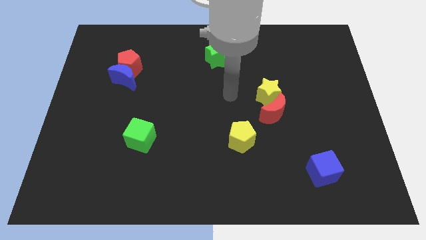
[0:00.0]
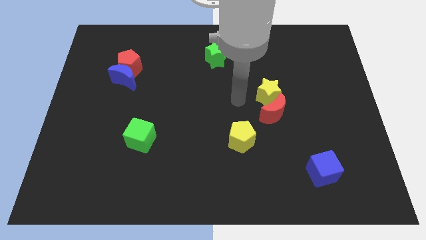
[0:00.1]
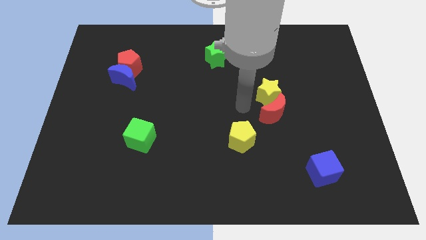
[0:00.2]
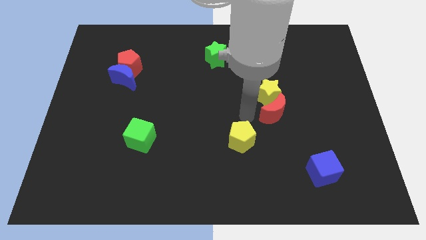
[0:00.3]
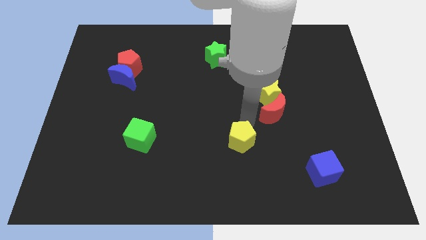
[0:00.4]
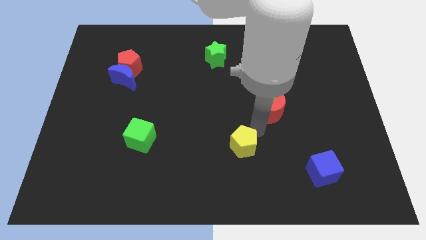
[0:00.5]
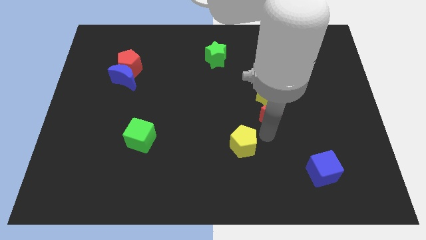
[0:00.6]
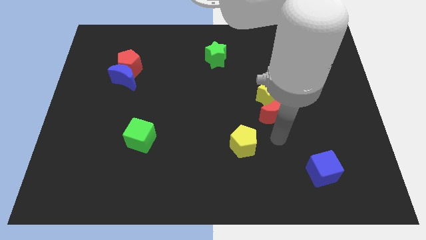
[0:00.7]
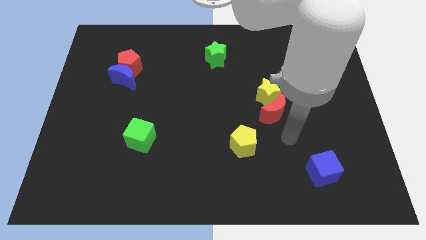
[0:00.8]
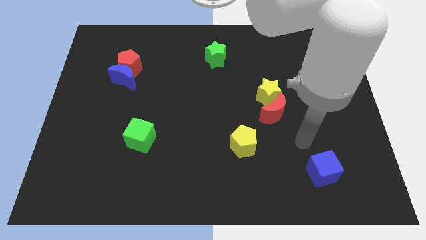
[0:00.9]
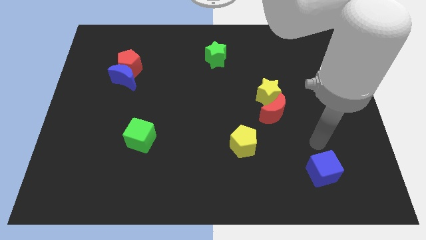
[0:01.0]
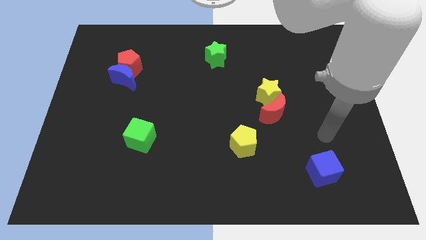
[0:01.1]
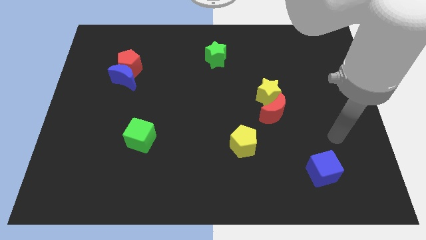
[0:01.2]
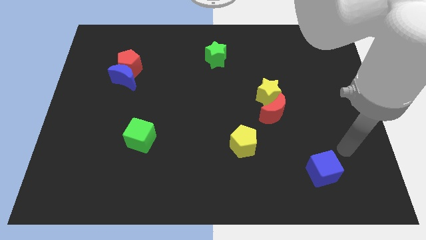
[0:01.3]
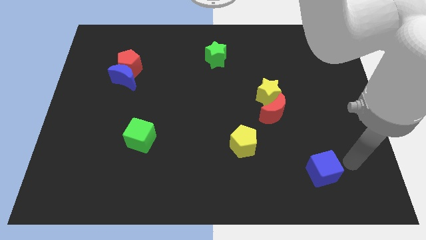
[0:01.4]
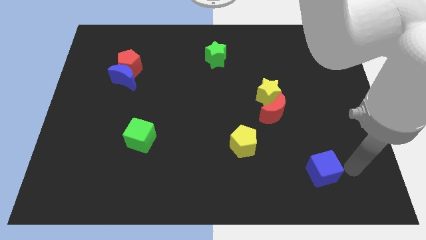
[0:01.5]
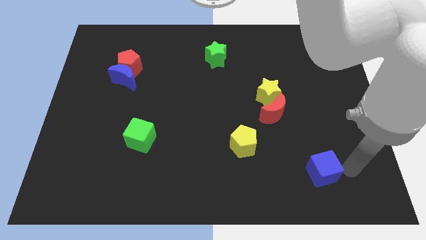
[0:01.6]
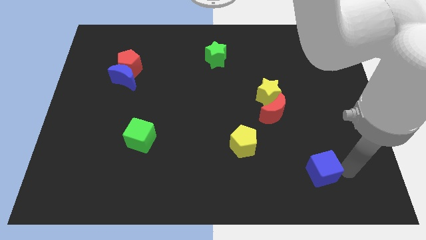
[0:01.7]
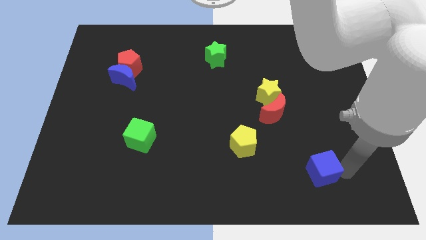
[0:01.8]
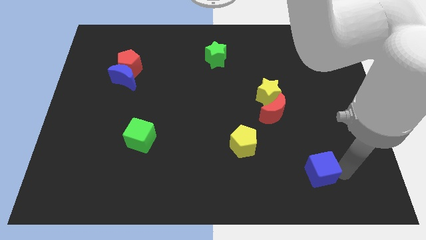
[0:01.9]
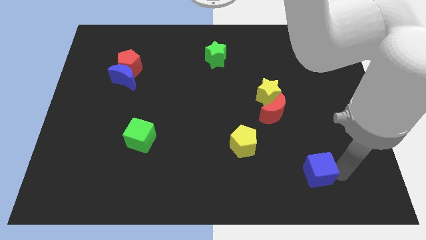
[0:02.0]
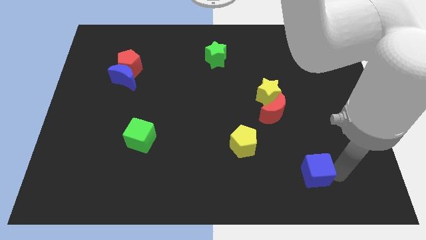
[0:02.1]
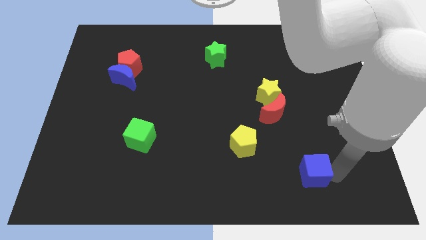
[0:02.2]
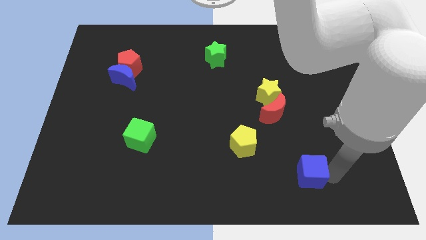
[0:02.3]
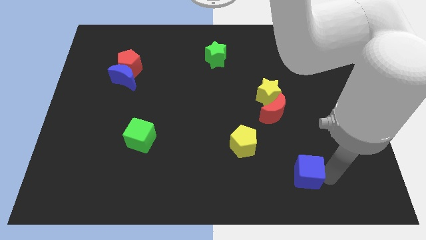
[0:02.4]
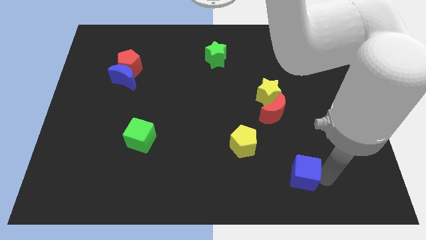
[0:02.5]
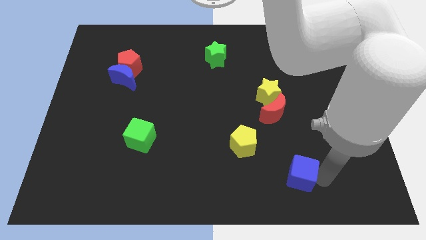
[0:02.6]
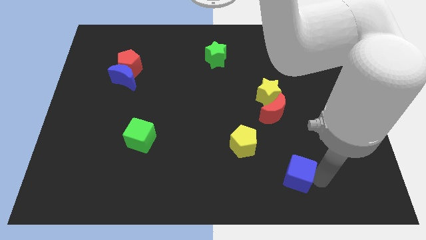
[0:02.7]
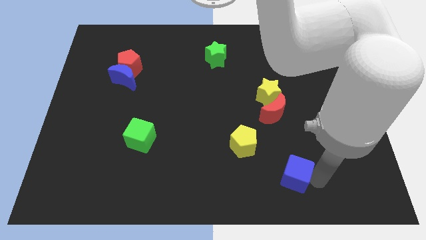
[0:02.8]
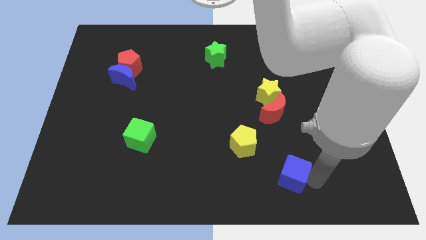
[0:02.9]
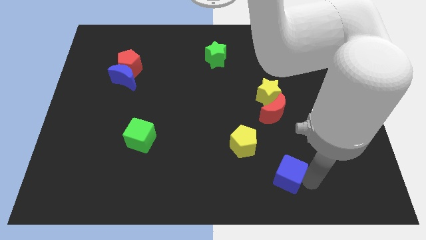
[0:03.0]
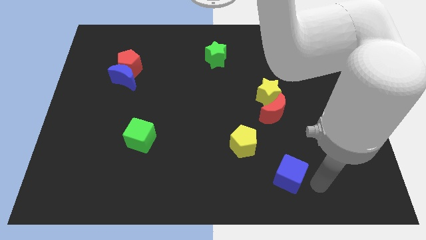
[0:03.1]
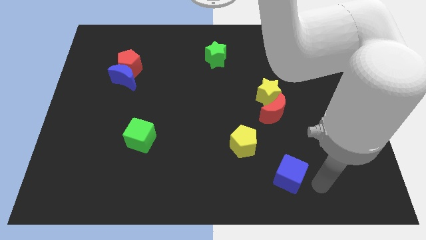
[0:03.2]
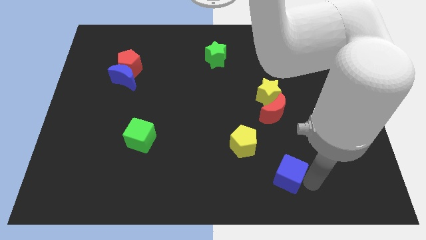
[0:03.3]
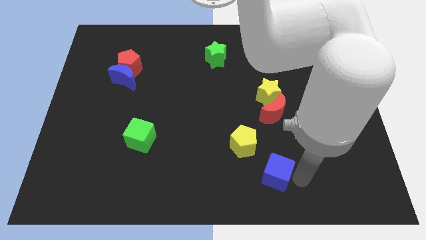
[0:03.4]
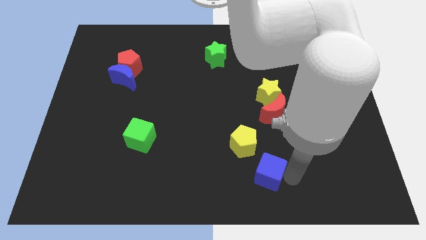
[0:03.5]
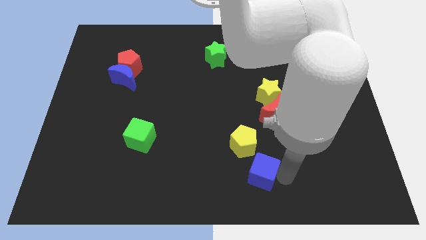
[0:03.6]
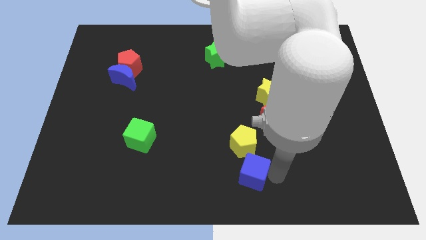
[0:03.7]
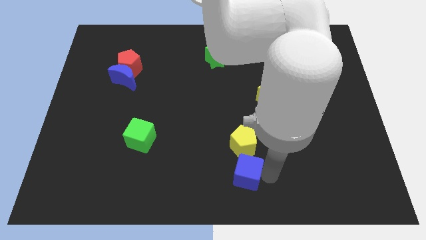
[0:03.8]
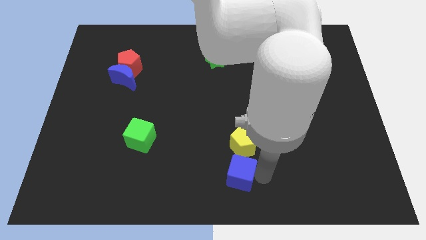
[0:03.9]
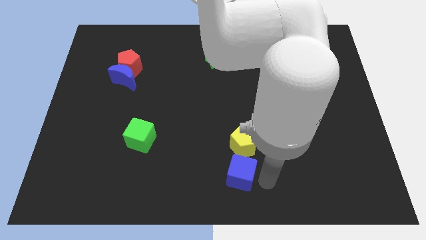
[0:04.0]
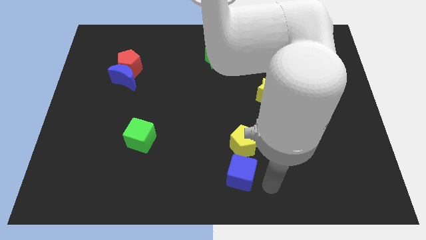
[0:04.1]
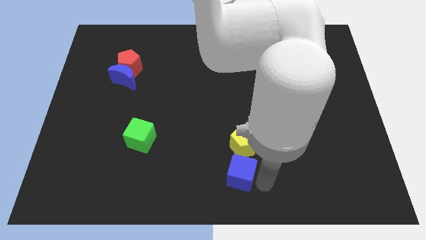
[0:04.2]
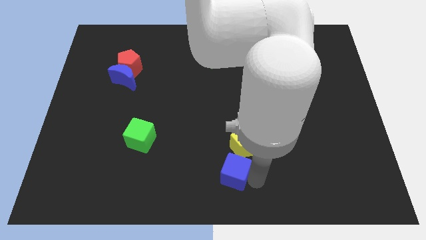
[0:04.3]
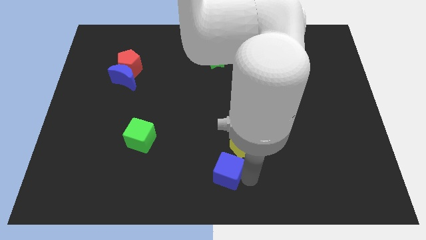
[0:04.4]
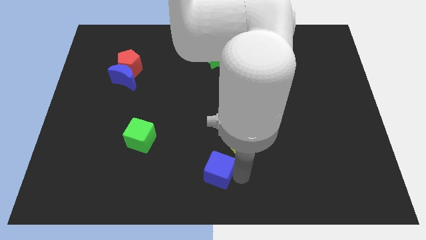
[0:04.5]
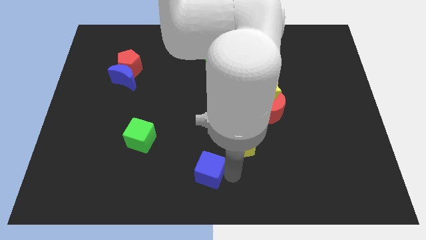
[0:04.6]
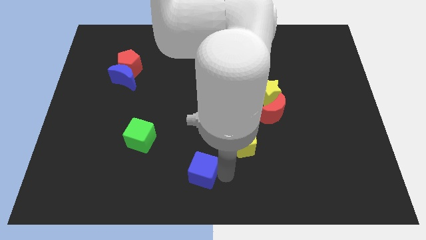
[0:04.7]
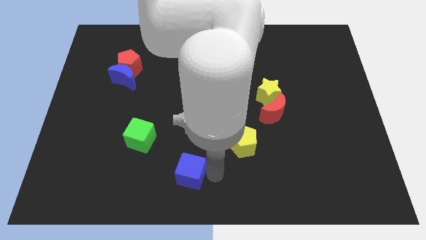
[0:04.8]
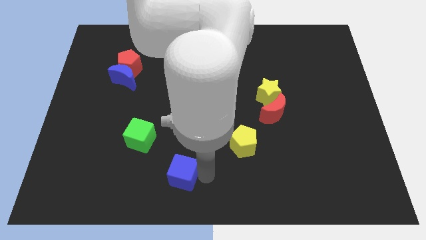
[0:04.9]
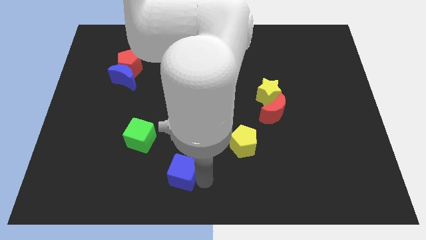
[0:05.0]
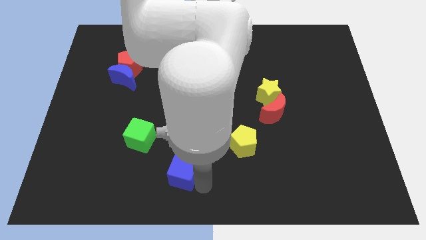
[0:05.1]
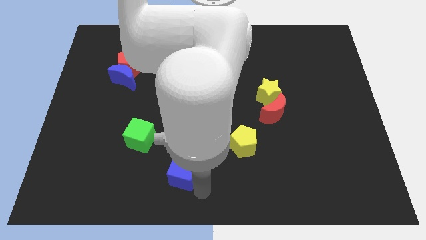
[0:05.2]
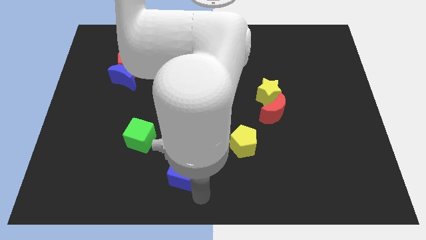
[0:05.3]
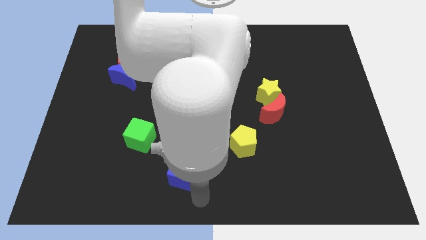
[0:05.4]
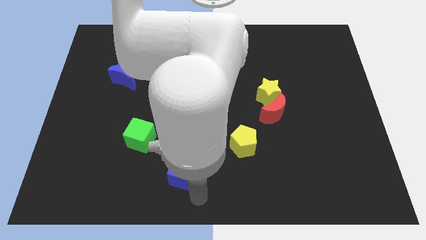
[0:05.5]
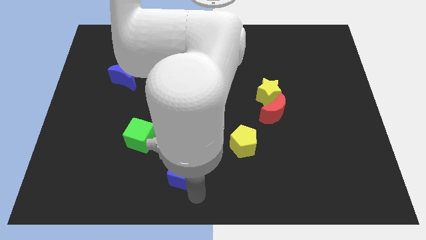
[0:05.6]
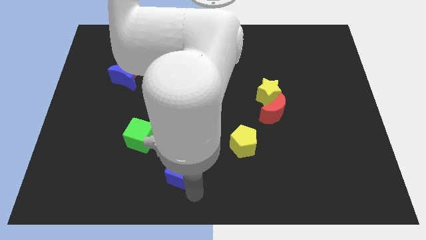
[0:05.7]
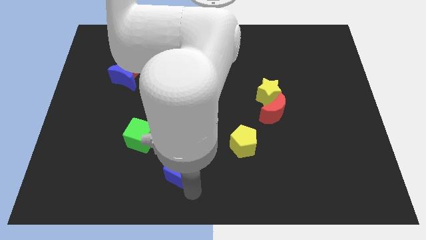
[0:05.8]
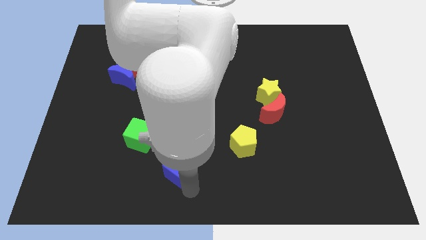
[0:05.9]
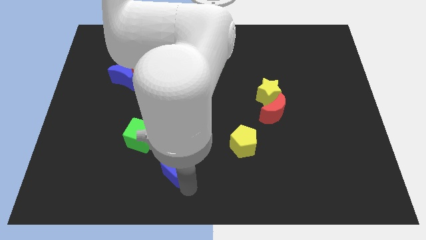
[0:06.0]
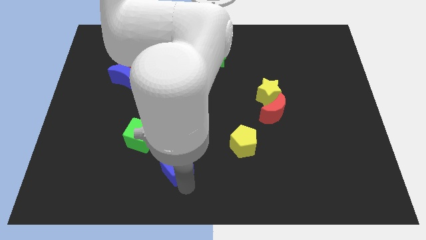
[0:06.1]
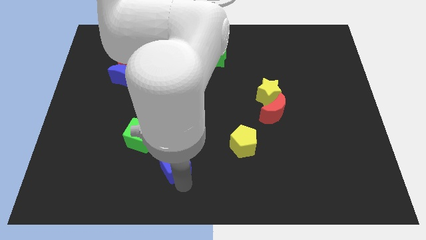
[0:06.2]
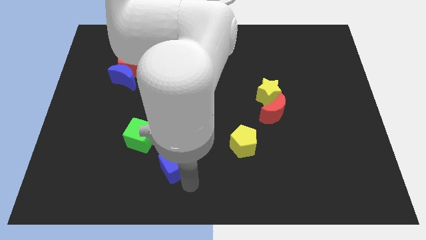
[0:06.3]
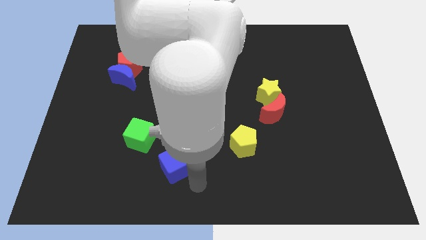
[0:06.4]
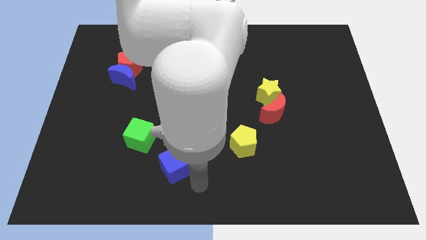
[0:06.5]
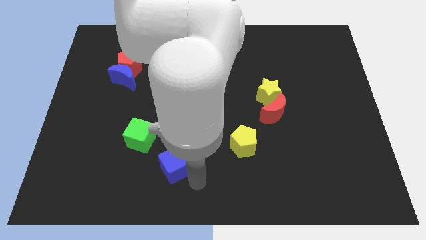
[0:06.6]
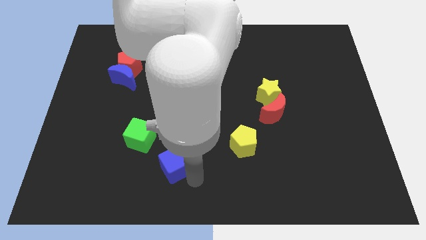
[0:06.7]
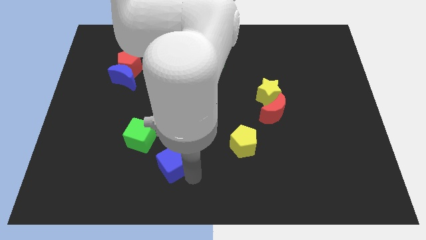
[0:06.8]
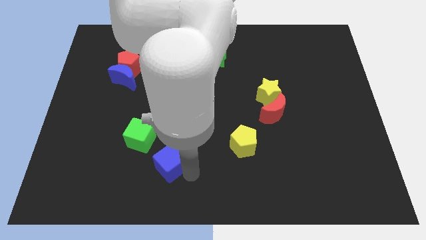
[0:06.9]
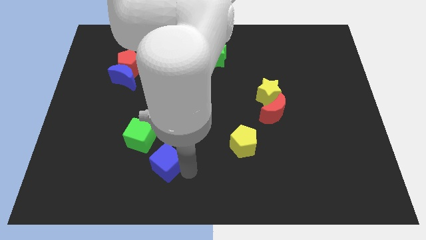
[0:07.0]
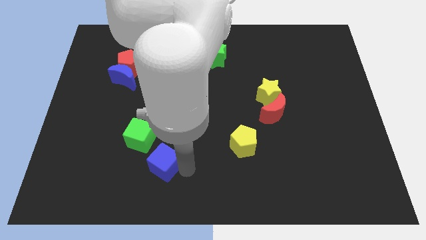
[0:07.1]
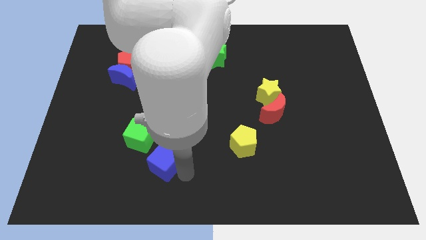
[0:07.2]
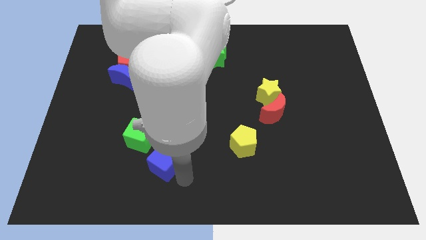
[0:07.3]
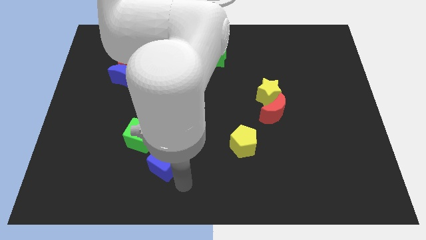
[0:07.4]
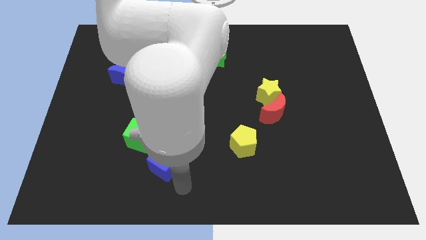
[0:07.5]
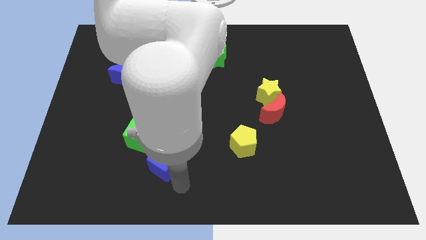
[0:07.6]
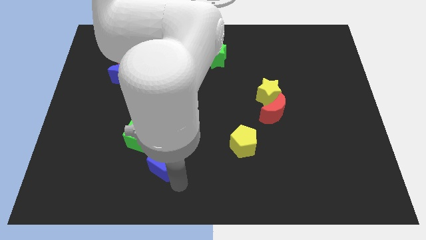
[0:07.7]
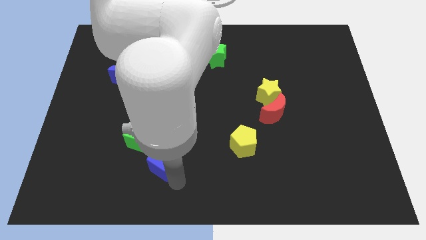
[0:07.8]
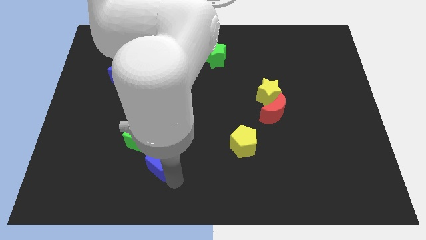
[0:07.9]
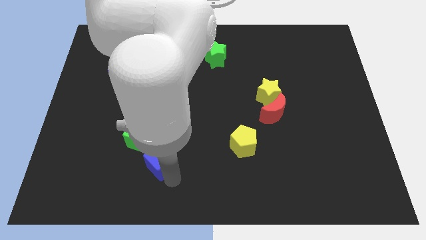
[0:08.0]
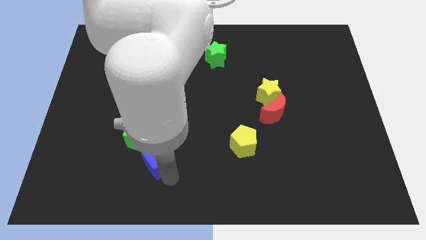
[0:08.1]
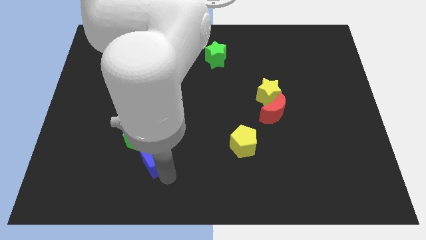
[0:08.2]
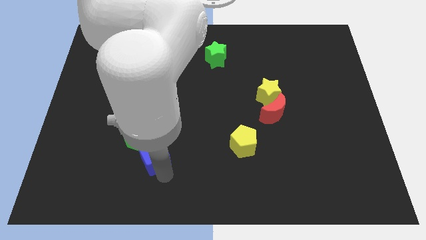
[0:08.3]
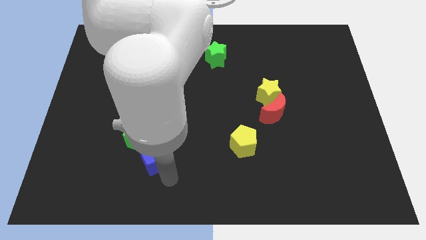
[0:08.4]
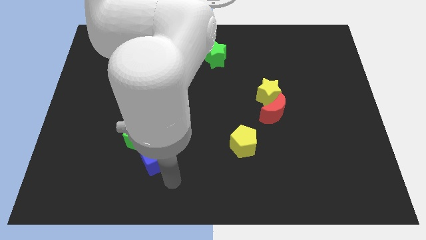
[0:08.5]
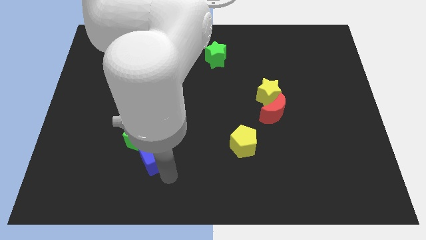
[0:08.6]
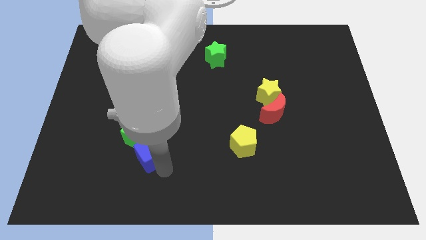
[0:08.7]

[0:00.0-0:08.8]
move the blue cube towards the green cube
